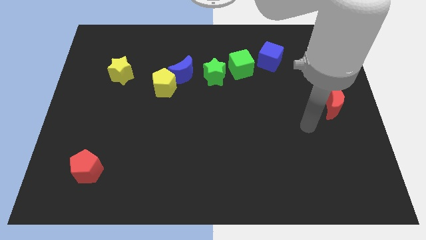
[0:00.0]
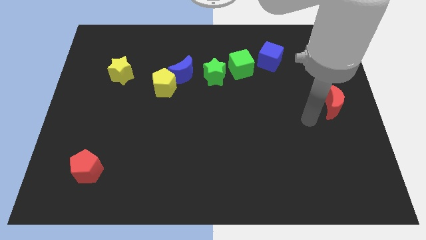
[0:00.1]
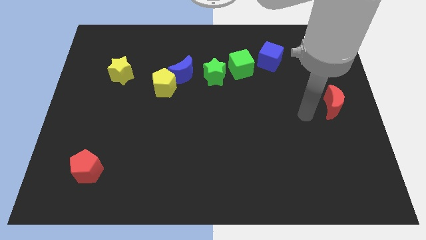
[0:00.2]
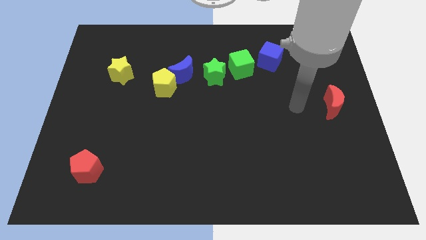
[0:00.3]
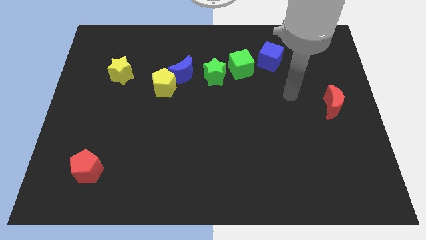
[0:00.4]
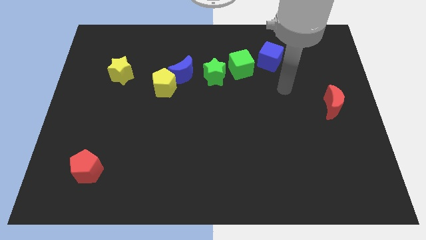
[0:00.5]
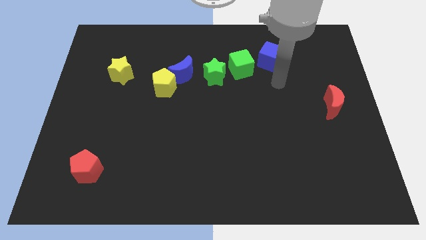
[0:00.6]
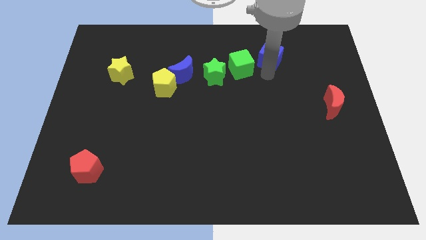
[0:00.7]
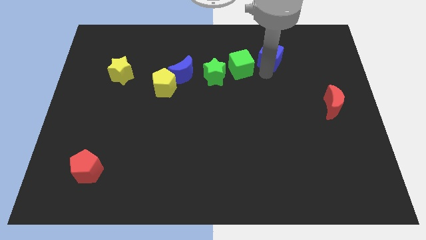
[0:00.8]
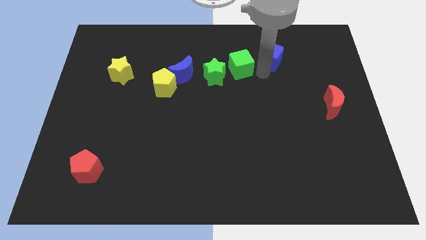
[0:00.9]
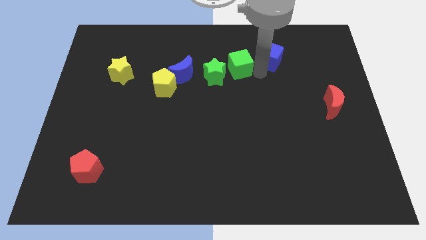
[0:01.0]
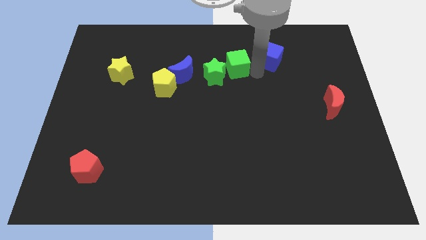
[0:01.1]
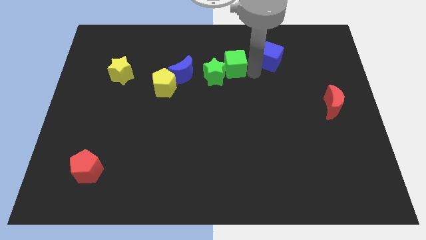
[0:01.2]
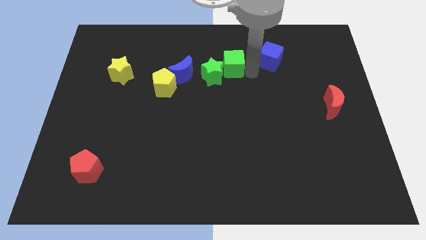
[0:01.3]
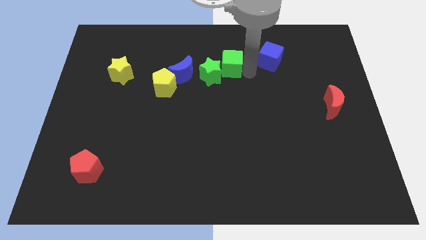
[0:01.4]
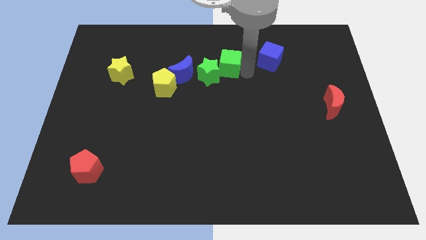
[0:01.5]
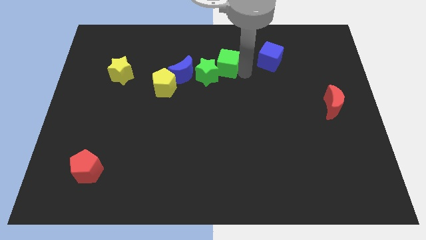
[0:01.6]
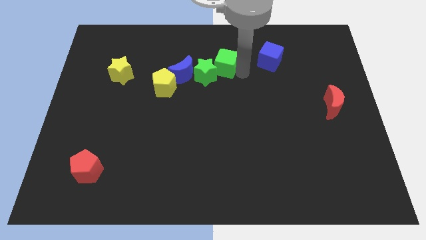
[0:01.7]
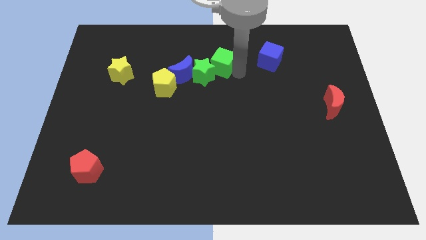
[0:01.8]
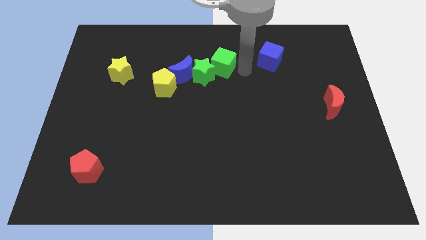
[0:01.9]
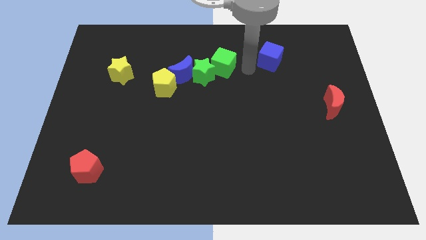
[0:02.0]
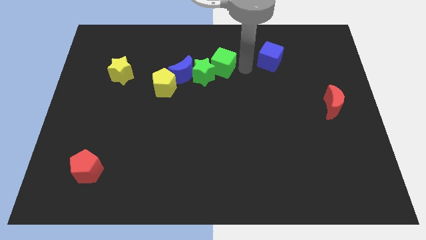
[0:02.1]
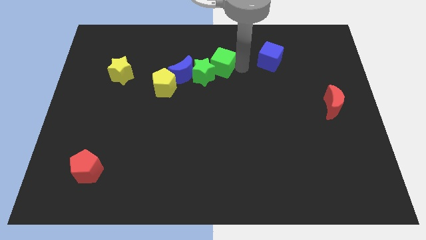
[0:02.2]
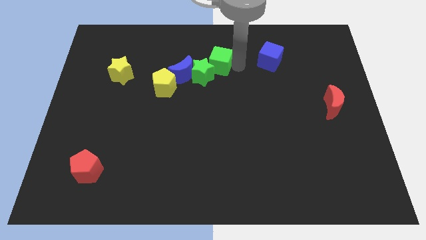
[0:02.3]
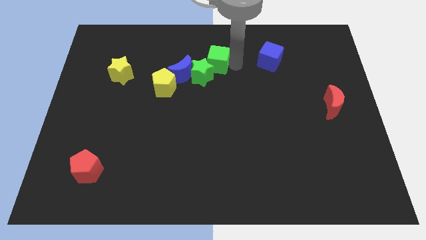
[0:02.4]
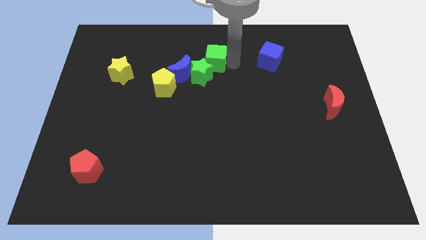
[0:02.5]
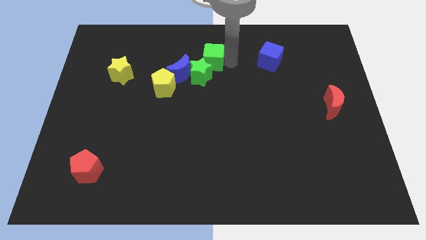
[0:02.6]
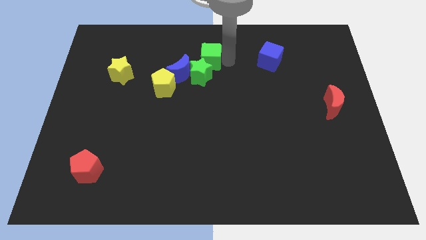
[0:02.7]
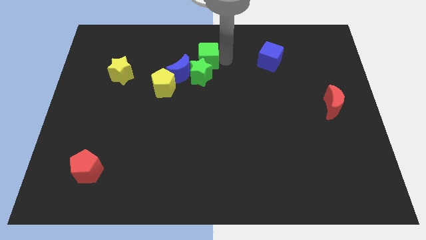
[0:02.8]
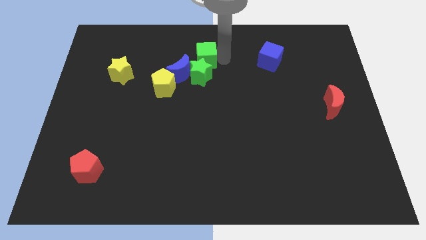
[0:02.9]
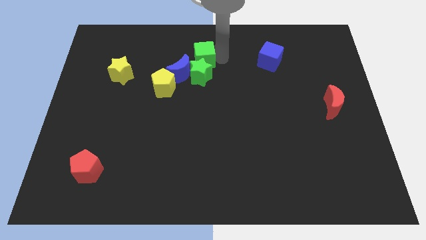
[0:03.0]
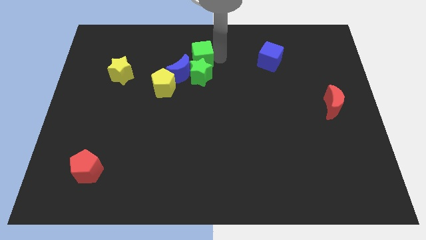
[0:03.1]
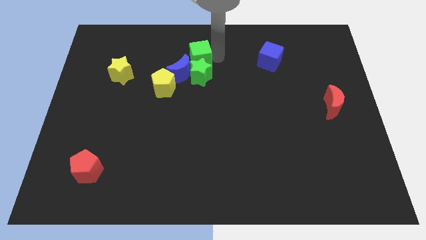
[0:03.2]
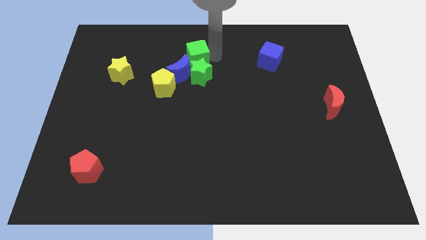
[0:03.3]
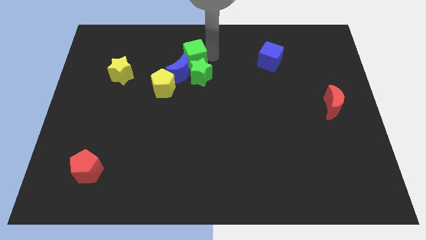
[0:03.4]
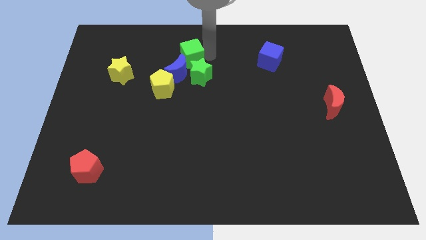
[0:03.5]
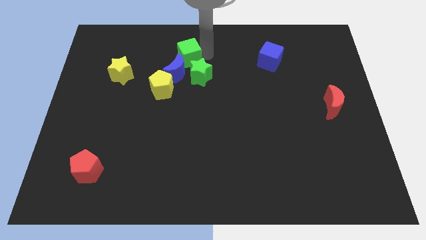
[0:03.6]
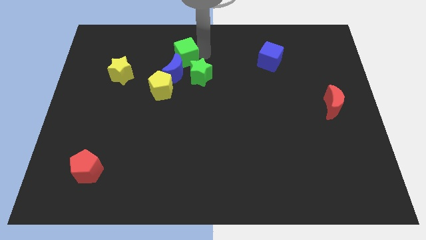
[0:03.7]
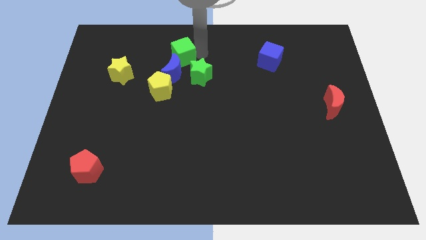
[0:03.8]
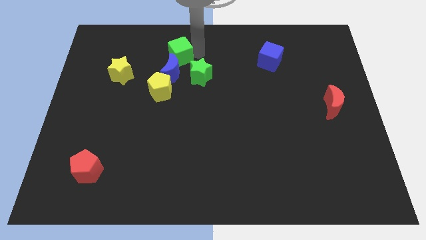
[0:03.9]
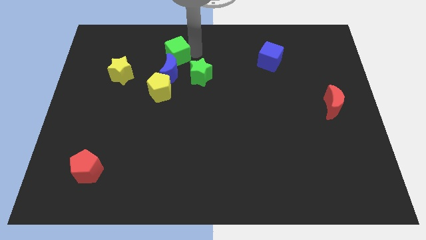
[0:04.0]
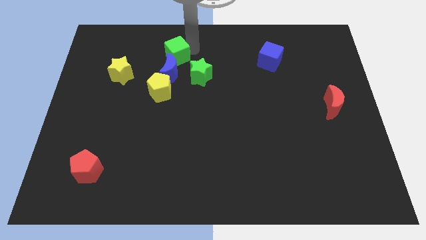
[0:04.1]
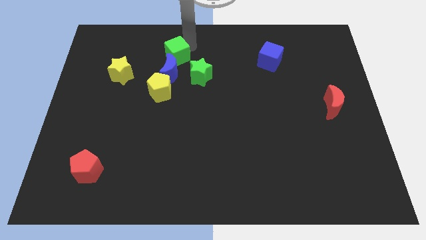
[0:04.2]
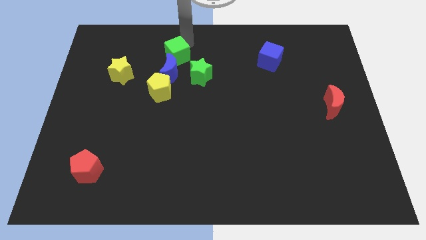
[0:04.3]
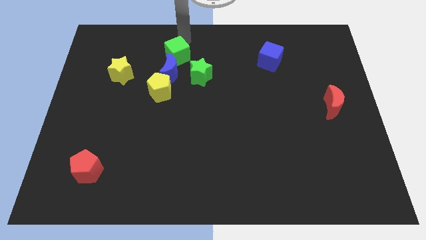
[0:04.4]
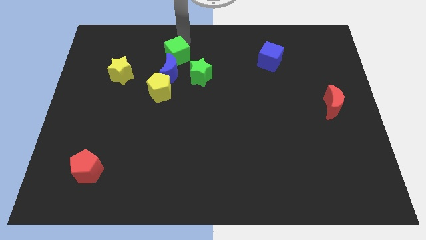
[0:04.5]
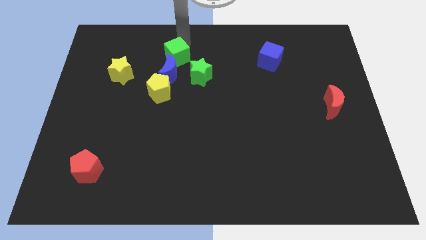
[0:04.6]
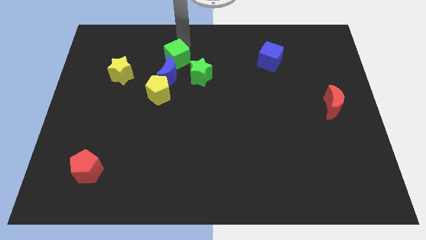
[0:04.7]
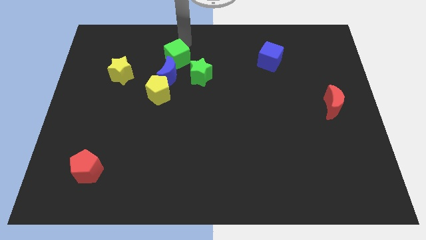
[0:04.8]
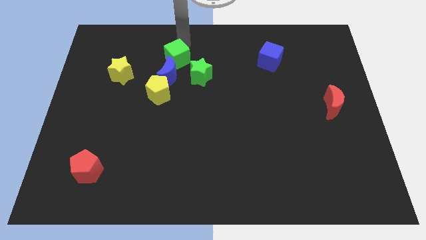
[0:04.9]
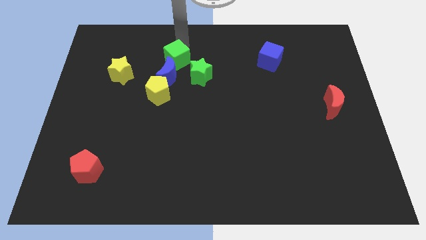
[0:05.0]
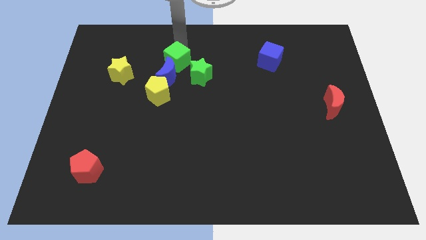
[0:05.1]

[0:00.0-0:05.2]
move the green cube to the blue moon

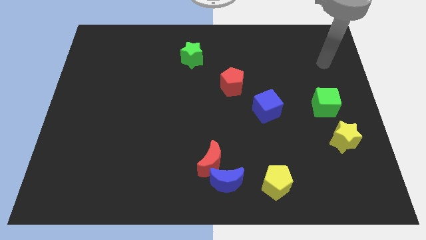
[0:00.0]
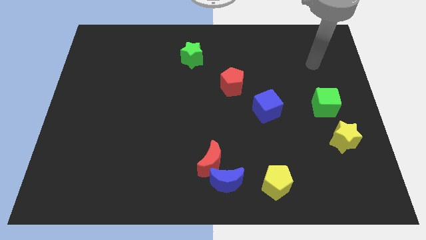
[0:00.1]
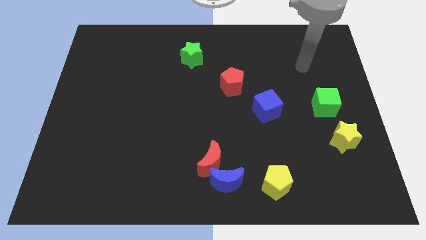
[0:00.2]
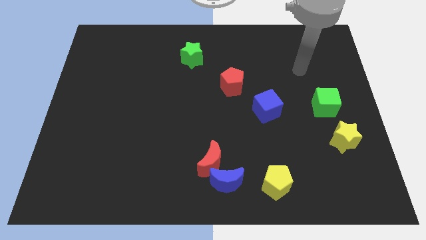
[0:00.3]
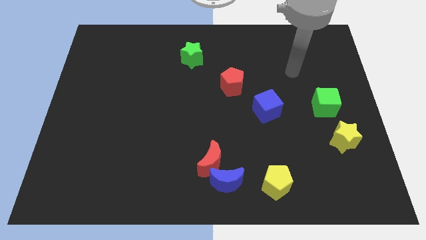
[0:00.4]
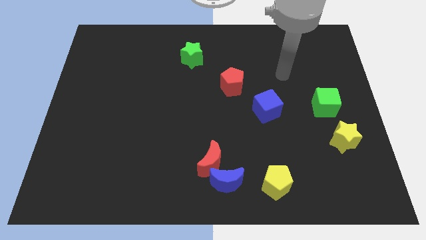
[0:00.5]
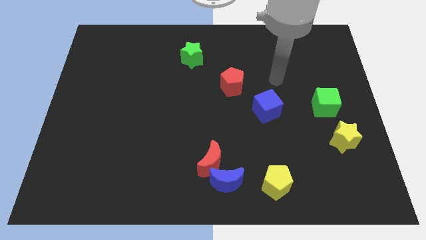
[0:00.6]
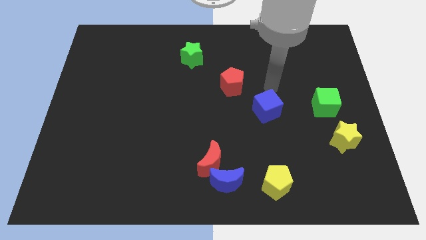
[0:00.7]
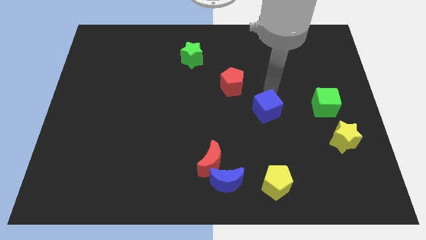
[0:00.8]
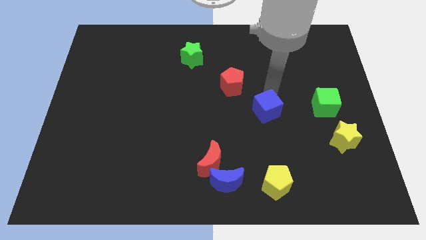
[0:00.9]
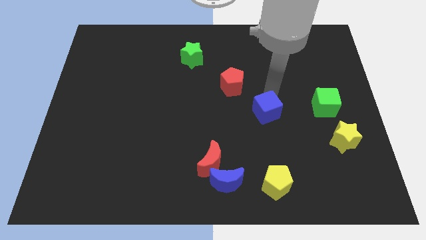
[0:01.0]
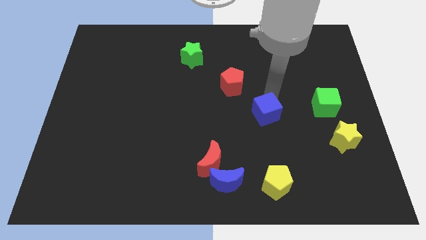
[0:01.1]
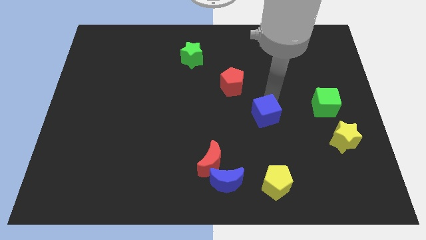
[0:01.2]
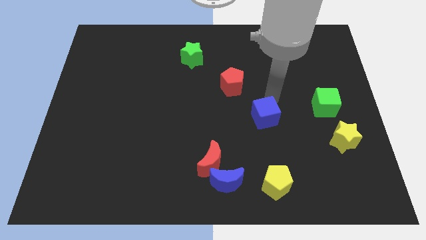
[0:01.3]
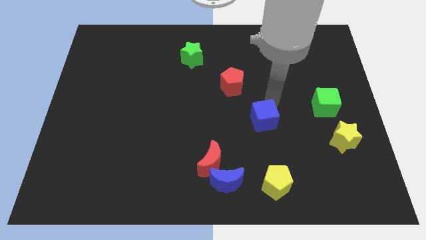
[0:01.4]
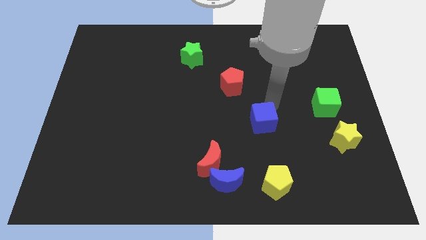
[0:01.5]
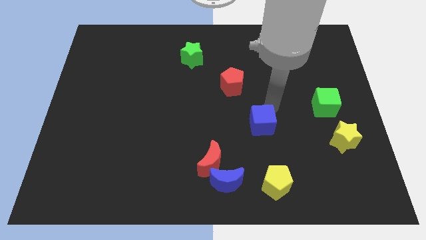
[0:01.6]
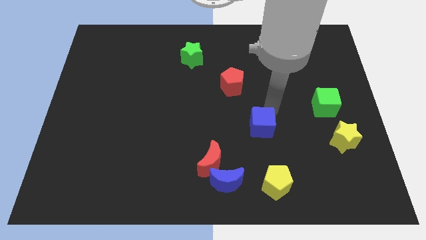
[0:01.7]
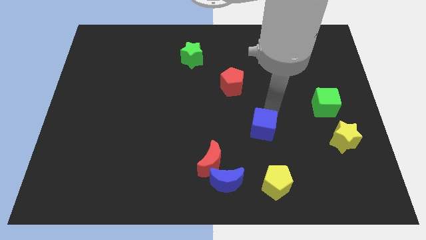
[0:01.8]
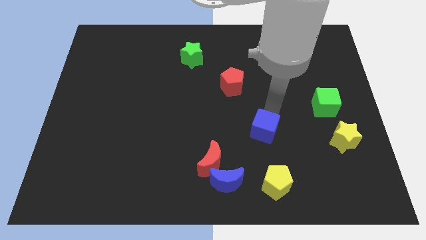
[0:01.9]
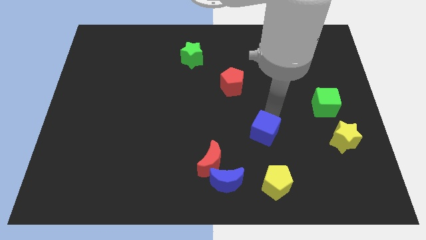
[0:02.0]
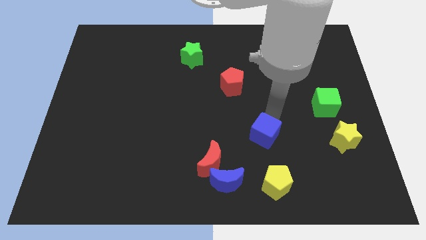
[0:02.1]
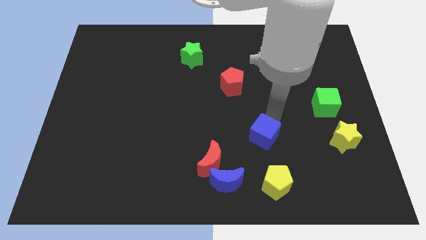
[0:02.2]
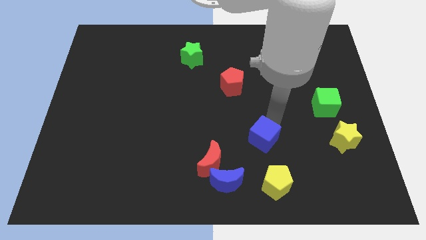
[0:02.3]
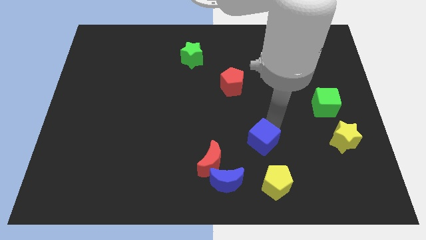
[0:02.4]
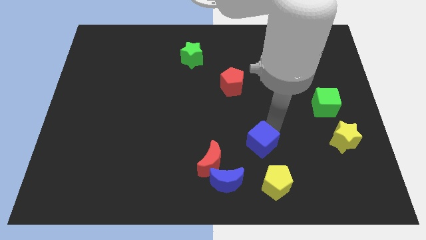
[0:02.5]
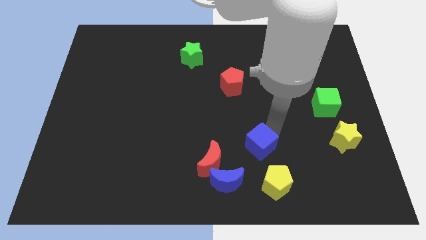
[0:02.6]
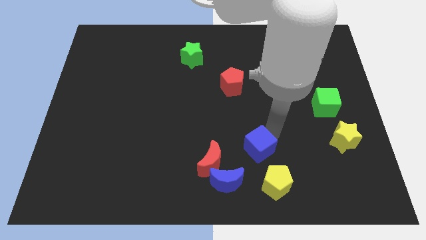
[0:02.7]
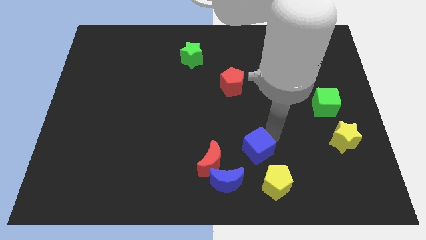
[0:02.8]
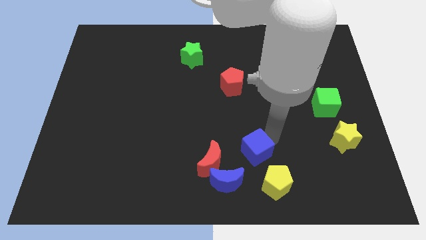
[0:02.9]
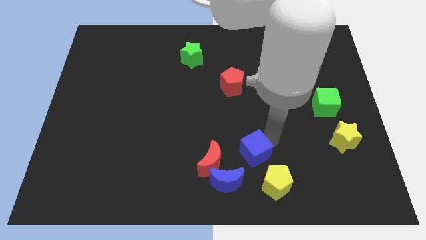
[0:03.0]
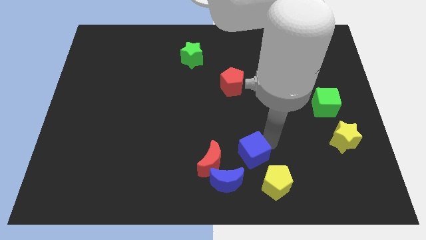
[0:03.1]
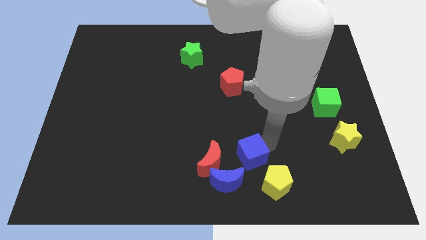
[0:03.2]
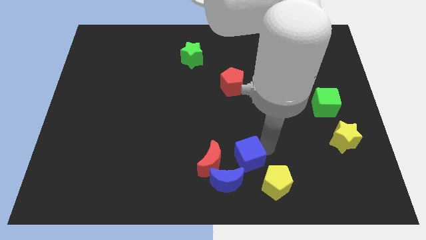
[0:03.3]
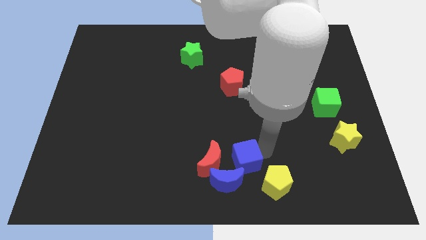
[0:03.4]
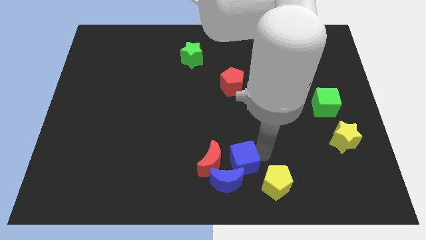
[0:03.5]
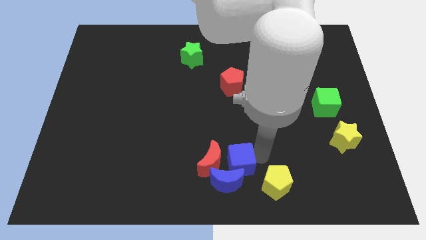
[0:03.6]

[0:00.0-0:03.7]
push the blue cube next to the red moon
